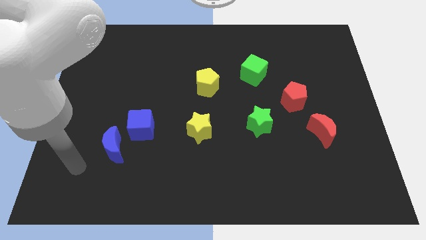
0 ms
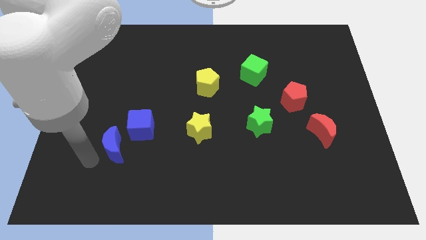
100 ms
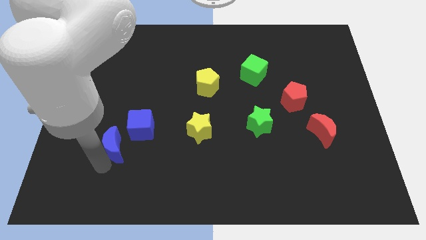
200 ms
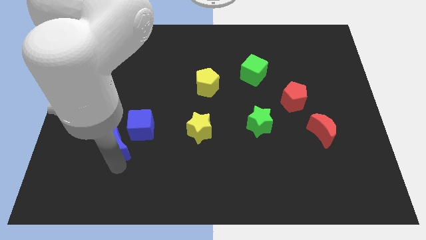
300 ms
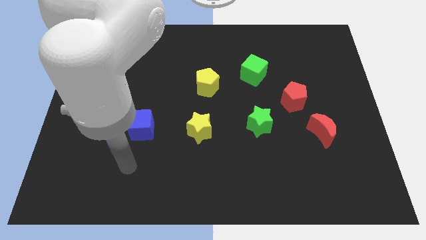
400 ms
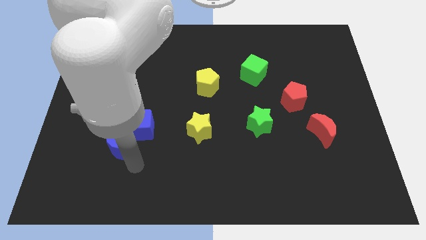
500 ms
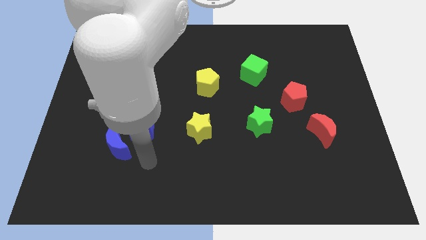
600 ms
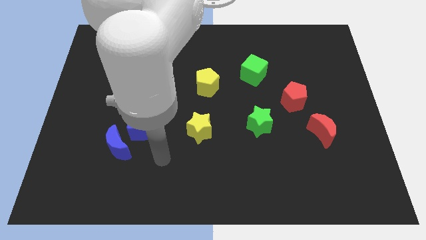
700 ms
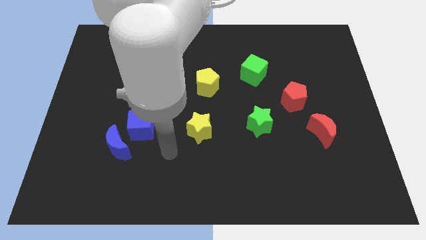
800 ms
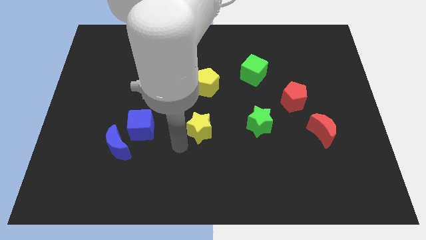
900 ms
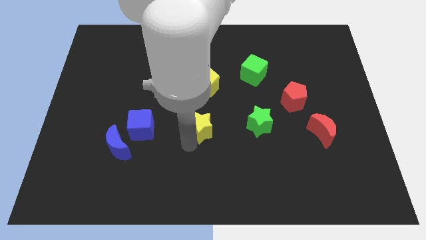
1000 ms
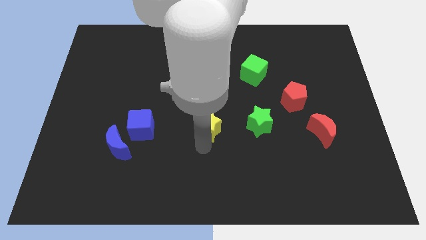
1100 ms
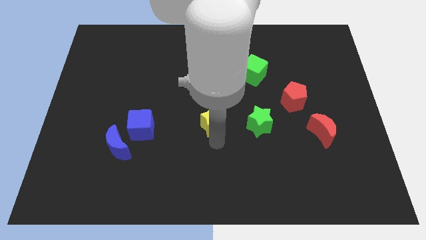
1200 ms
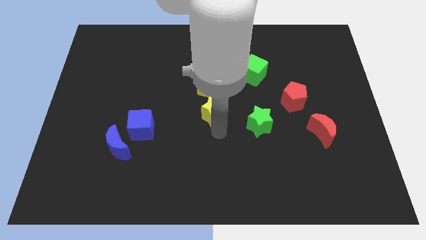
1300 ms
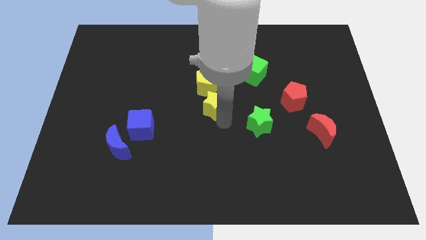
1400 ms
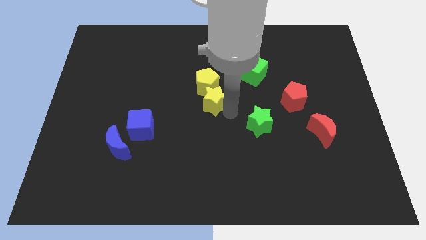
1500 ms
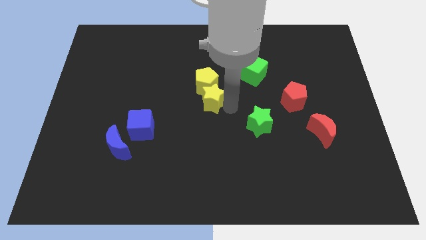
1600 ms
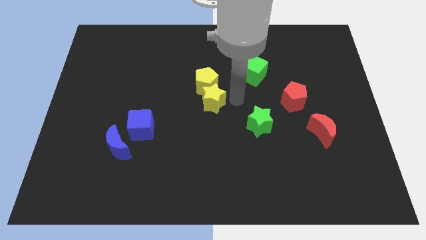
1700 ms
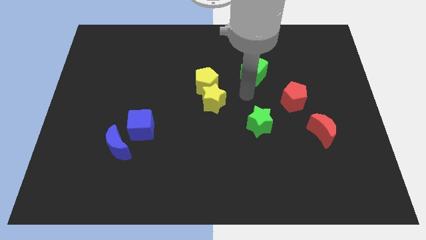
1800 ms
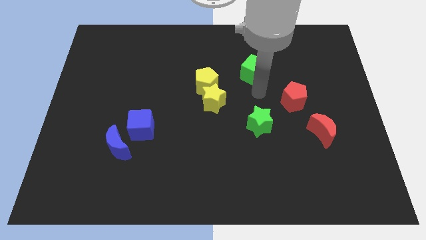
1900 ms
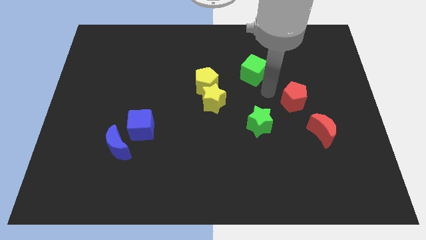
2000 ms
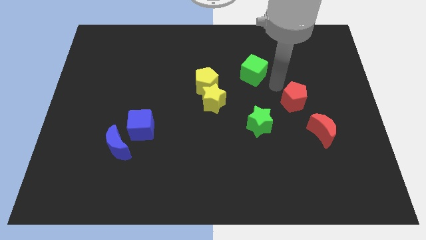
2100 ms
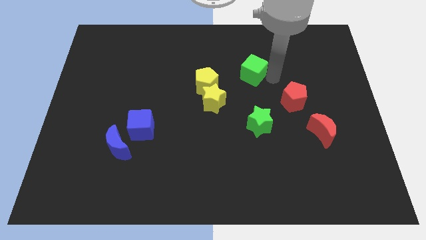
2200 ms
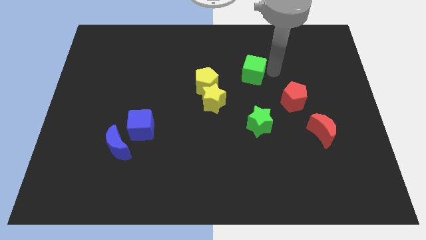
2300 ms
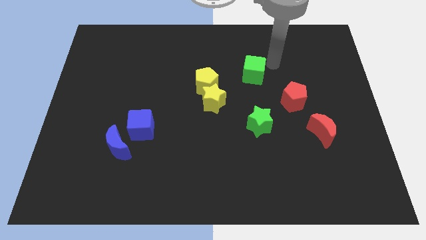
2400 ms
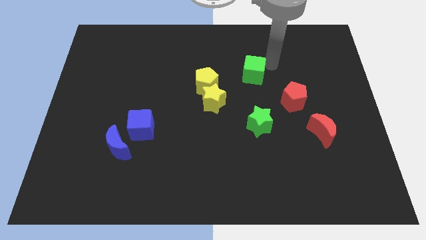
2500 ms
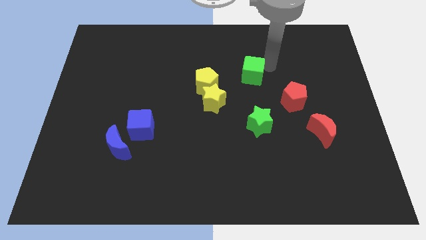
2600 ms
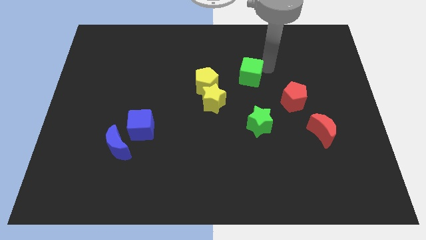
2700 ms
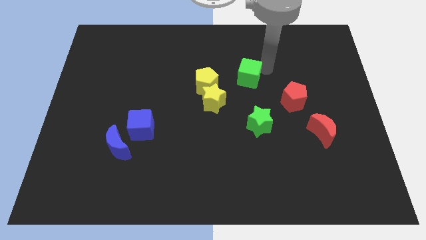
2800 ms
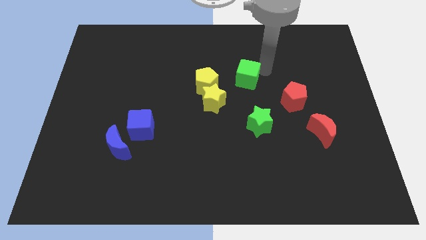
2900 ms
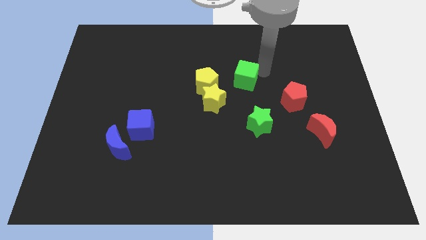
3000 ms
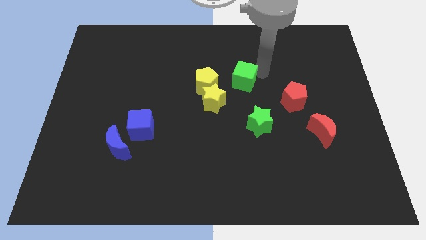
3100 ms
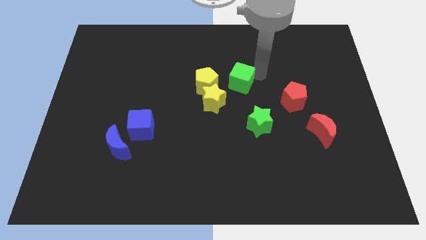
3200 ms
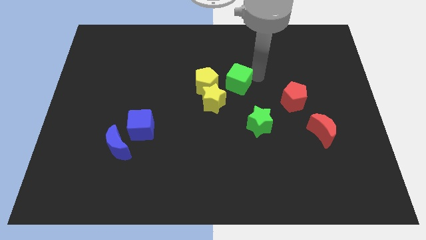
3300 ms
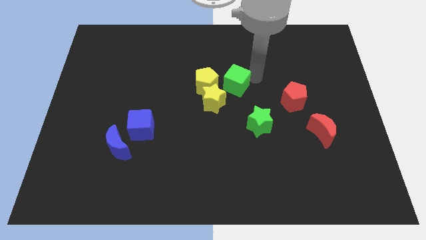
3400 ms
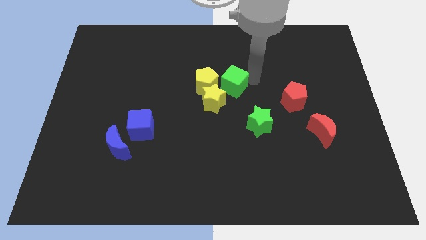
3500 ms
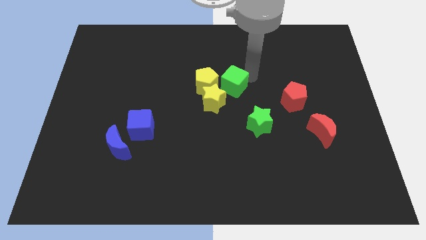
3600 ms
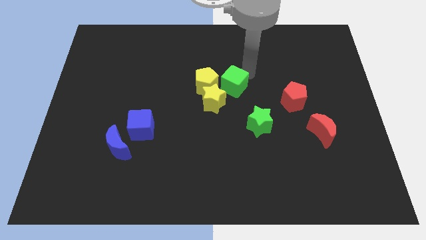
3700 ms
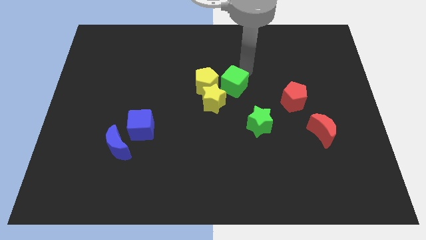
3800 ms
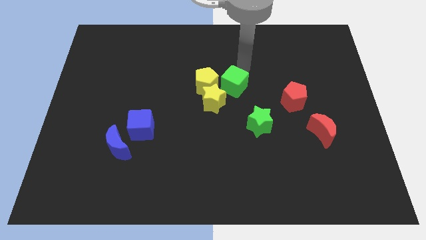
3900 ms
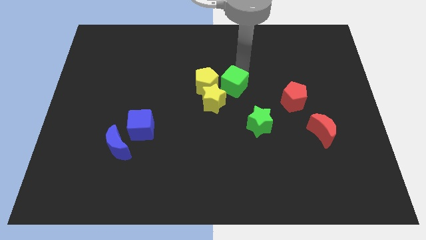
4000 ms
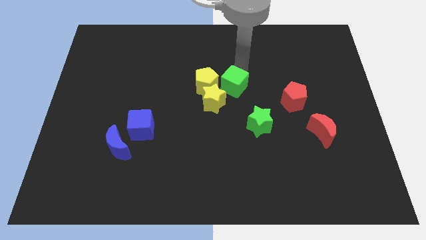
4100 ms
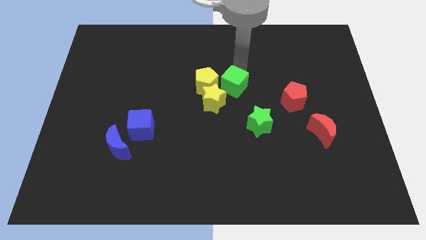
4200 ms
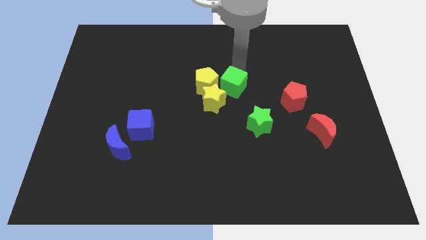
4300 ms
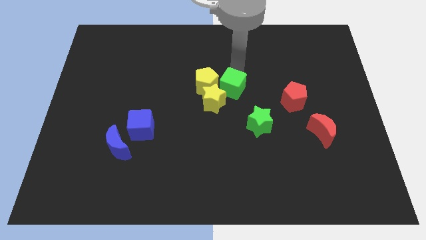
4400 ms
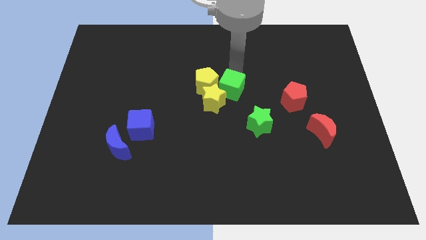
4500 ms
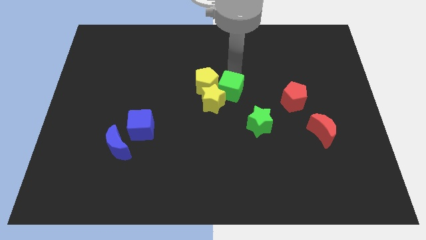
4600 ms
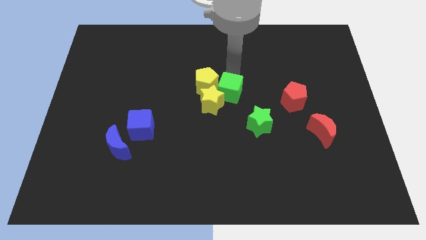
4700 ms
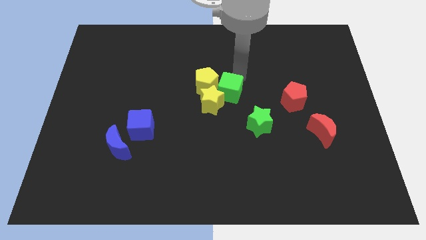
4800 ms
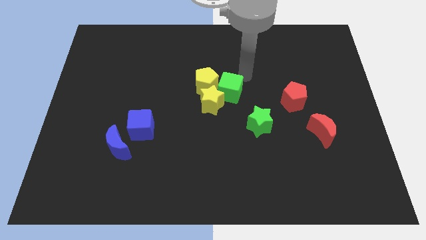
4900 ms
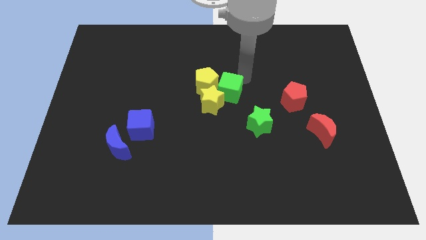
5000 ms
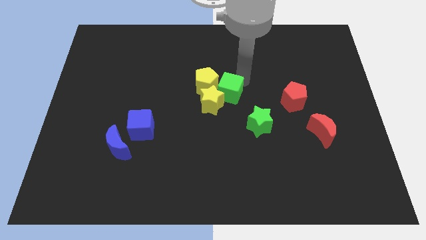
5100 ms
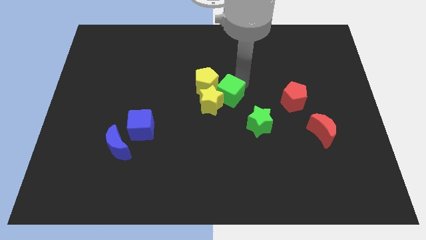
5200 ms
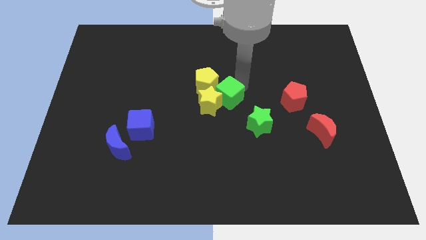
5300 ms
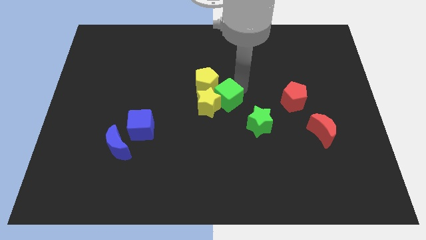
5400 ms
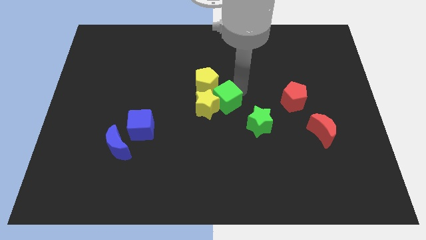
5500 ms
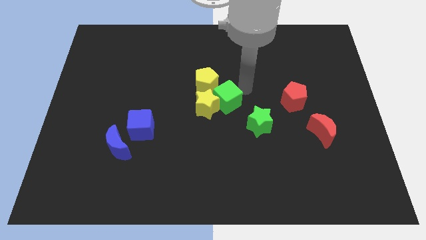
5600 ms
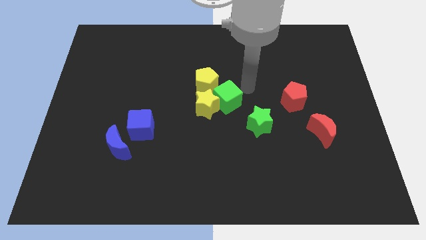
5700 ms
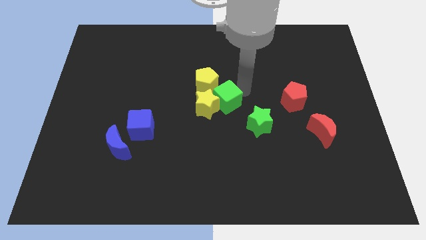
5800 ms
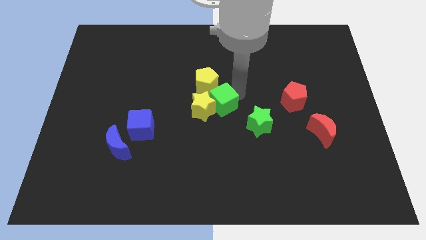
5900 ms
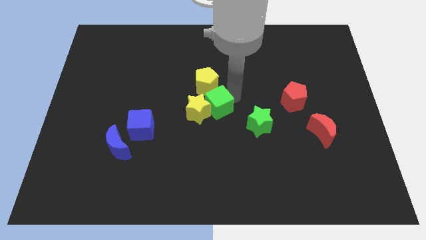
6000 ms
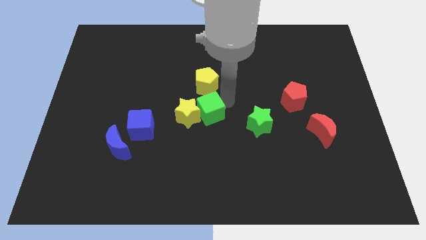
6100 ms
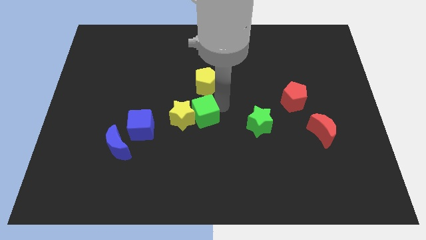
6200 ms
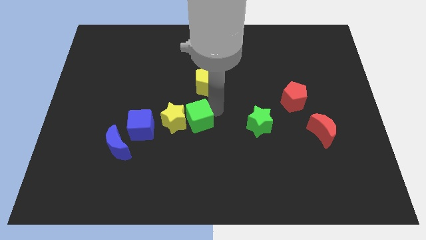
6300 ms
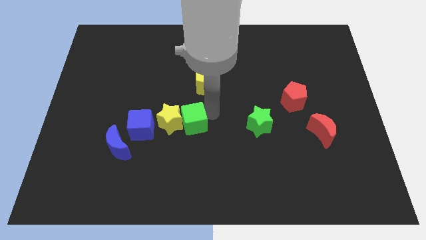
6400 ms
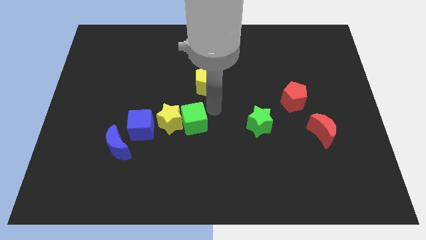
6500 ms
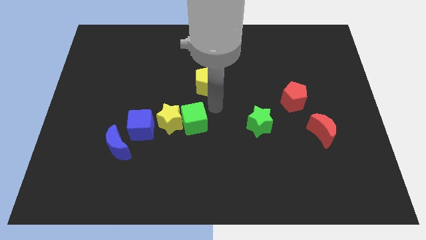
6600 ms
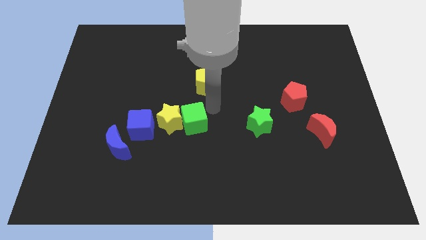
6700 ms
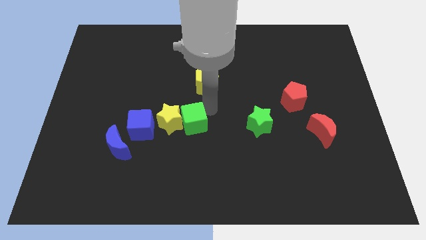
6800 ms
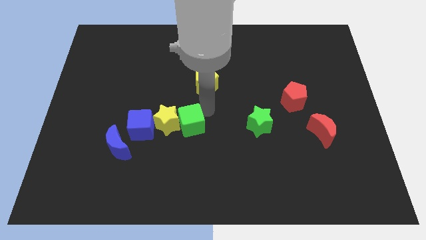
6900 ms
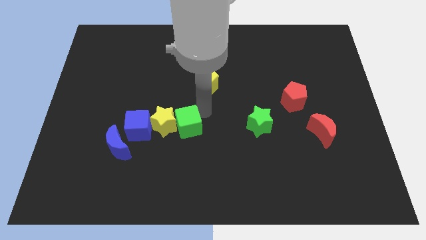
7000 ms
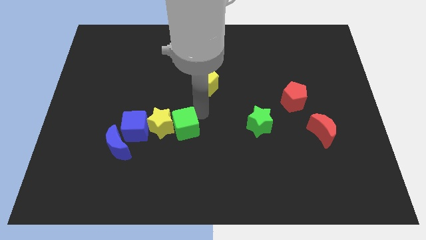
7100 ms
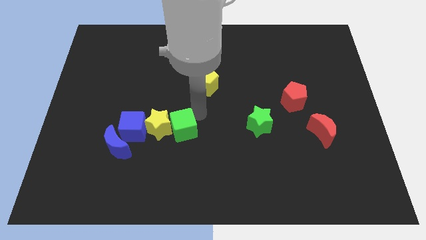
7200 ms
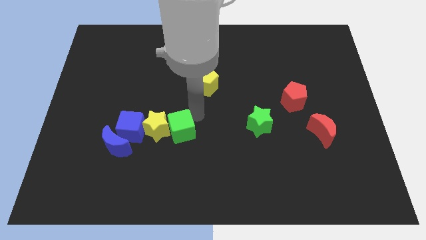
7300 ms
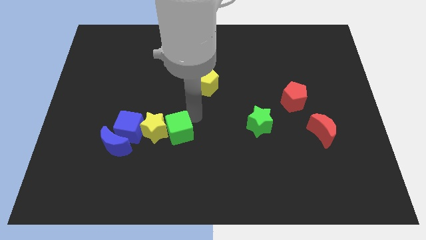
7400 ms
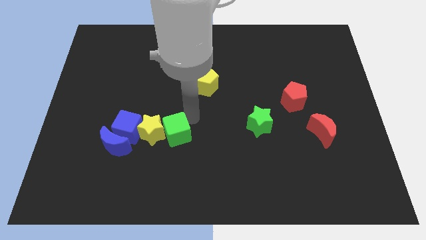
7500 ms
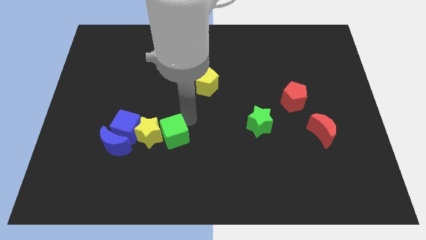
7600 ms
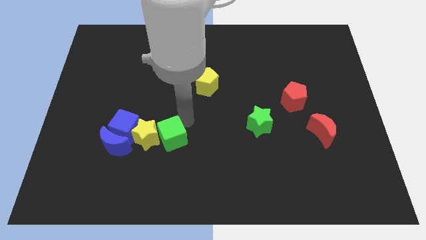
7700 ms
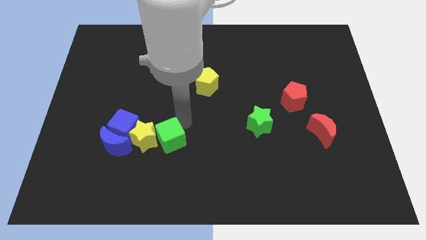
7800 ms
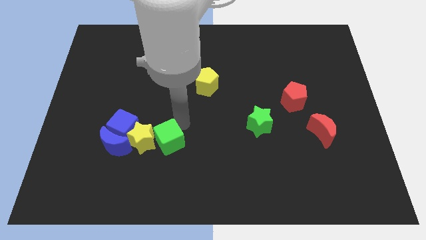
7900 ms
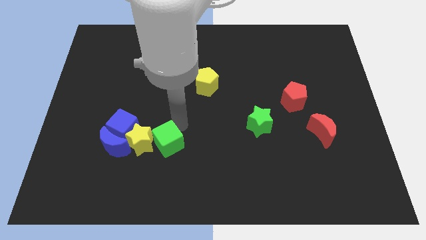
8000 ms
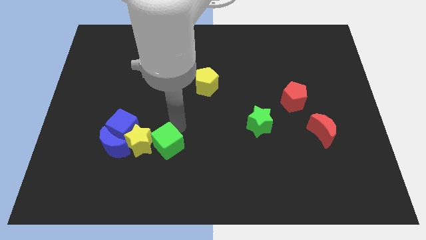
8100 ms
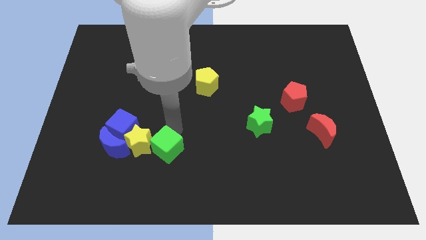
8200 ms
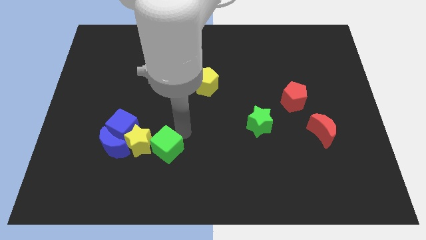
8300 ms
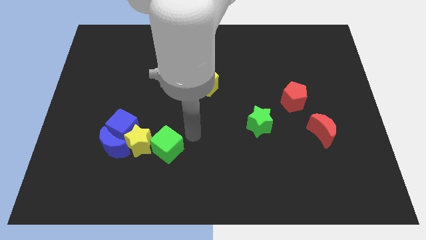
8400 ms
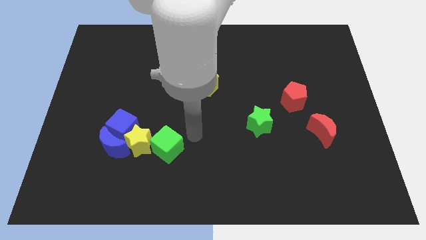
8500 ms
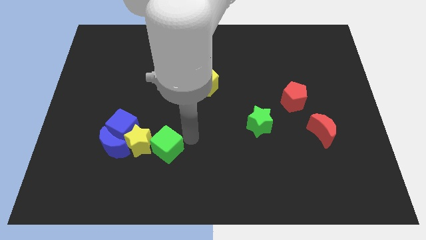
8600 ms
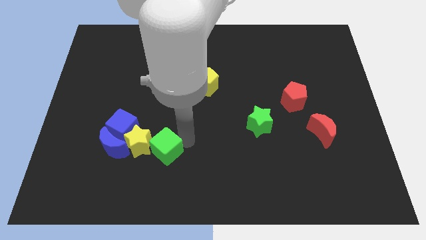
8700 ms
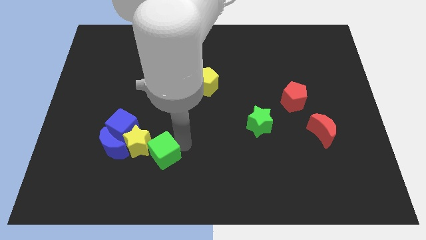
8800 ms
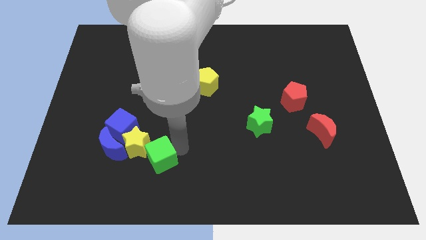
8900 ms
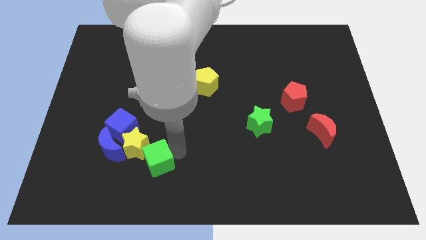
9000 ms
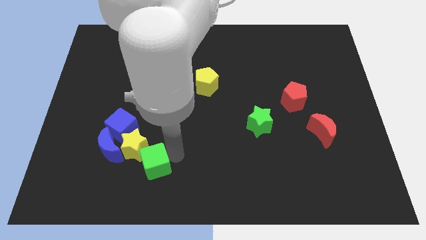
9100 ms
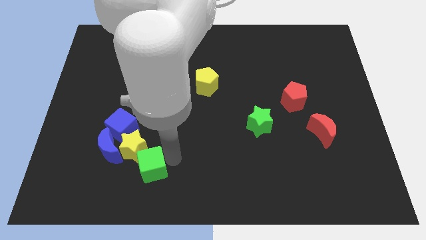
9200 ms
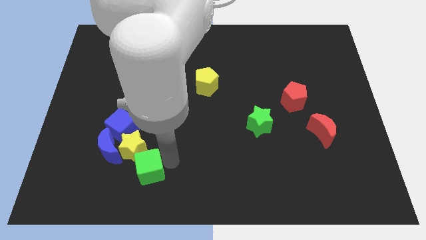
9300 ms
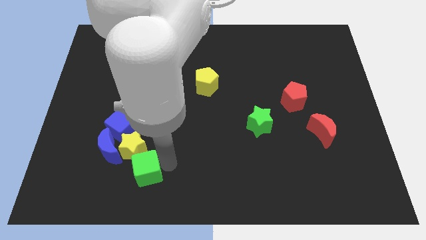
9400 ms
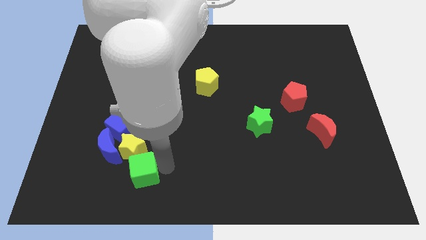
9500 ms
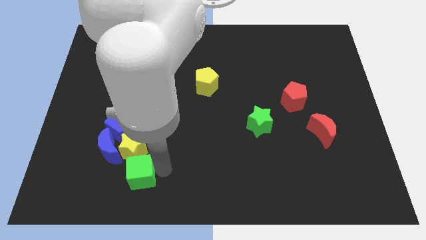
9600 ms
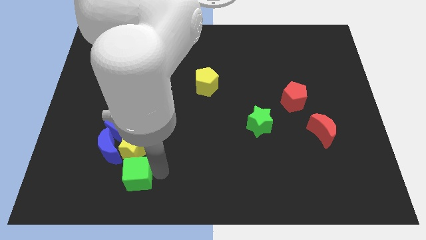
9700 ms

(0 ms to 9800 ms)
slide the green cube below the blue cube
